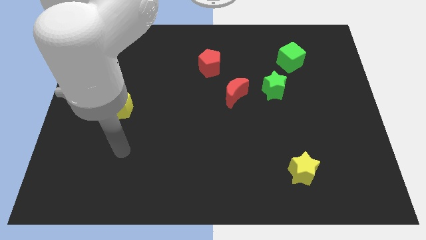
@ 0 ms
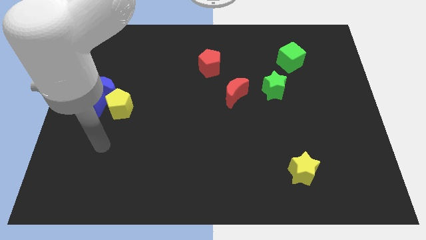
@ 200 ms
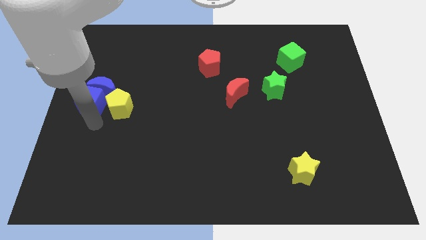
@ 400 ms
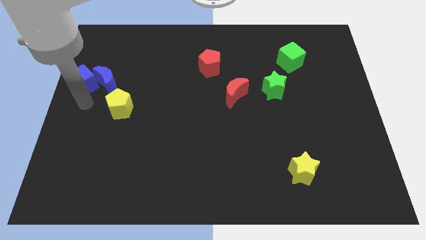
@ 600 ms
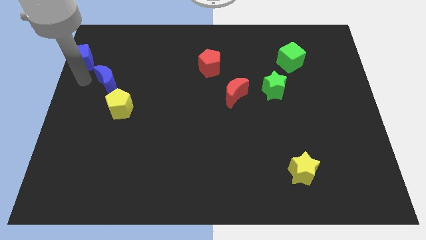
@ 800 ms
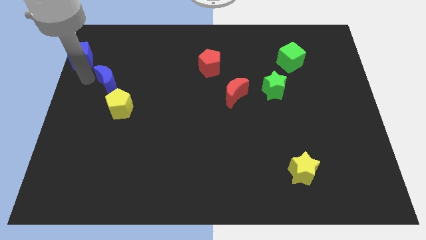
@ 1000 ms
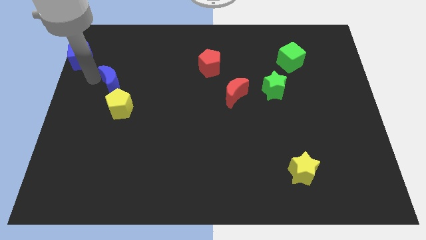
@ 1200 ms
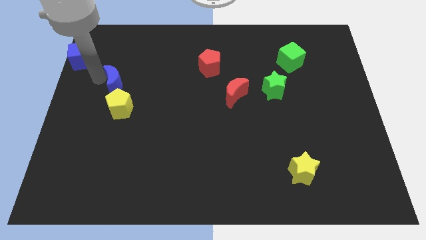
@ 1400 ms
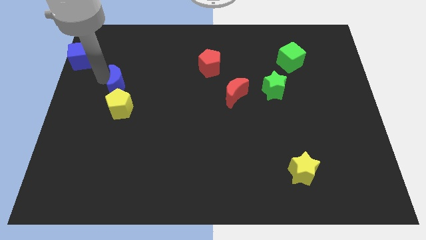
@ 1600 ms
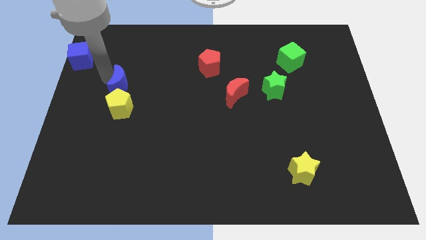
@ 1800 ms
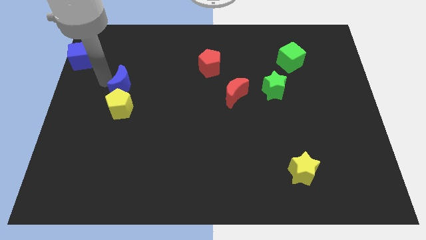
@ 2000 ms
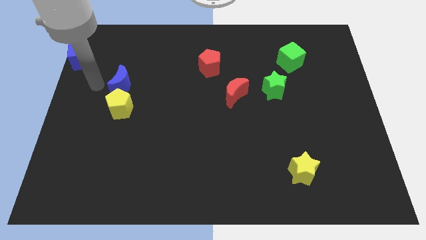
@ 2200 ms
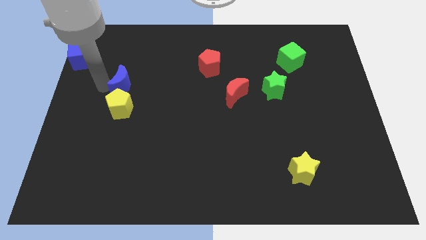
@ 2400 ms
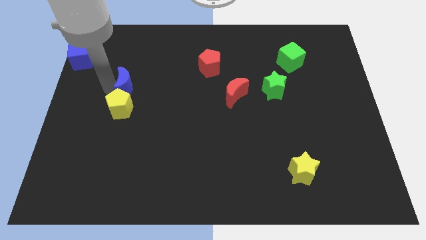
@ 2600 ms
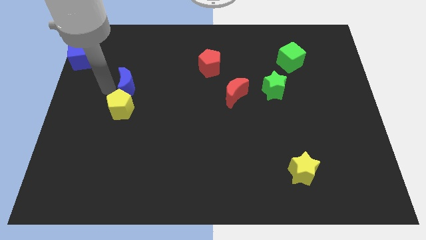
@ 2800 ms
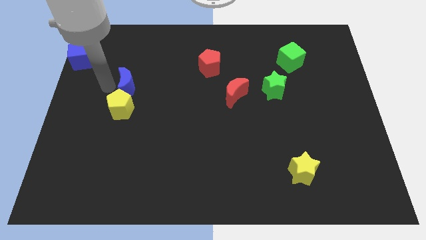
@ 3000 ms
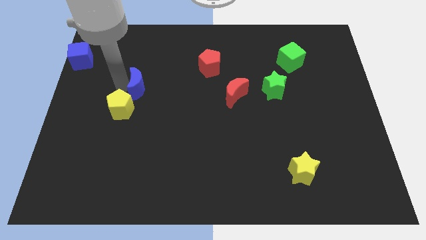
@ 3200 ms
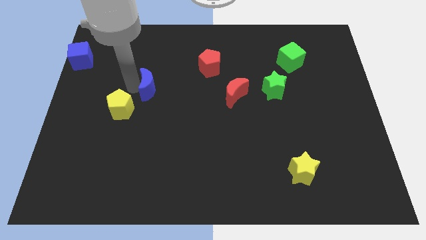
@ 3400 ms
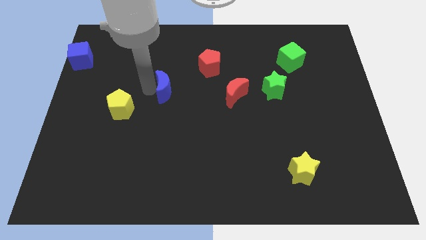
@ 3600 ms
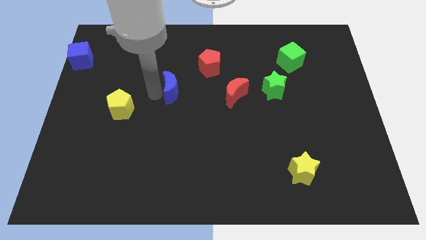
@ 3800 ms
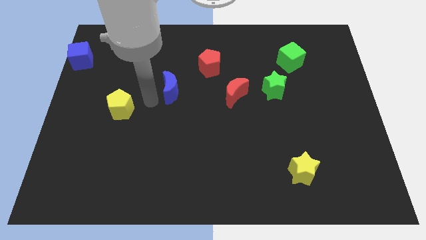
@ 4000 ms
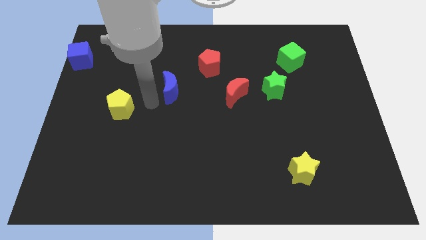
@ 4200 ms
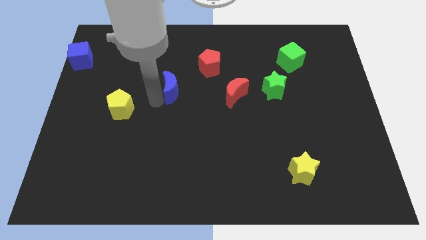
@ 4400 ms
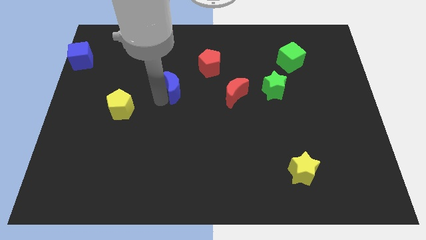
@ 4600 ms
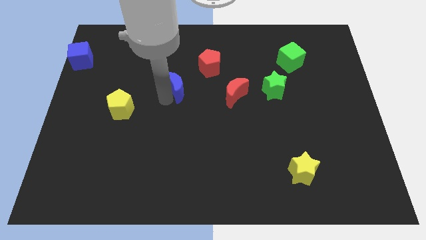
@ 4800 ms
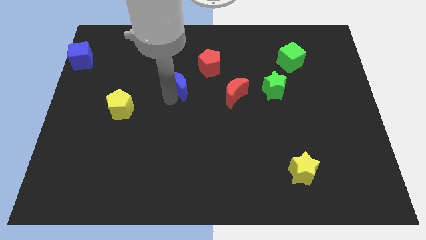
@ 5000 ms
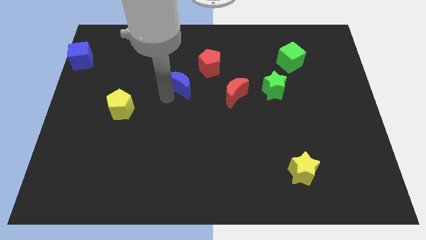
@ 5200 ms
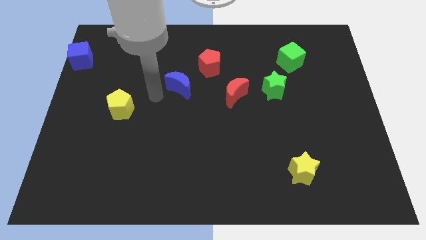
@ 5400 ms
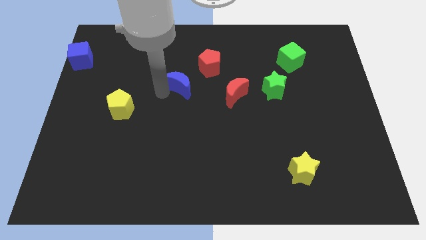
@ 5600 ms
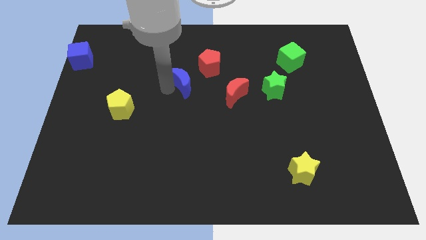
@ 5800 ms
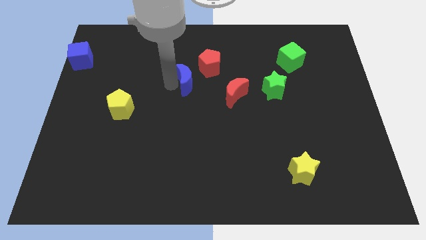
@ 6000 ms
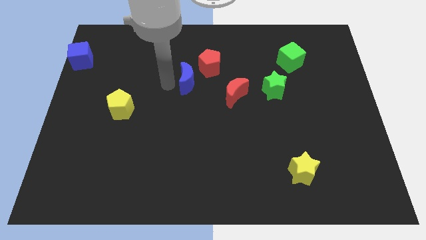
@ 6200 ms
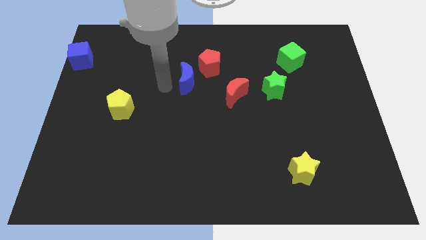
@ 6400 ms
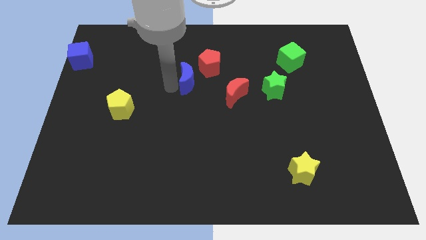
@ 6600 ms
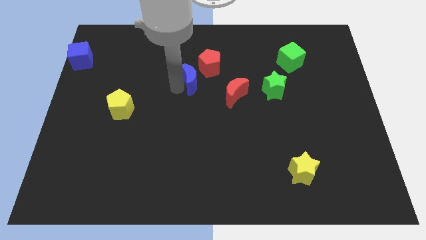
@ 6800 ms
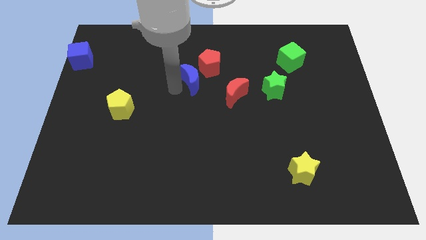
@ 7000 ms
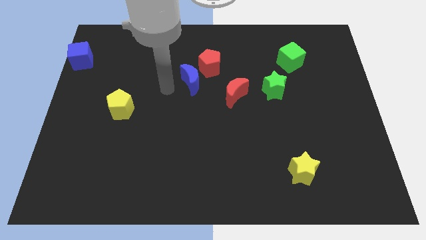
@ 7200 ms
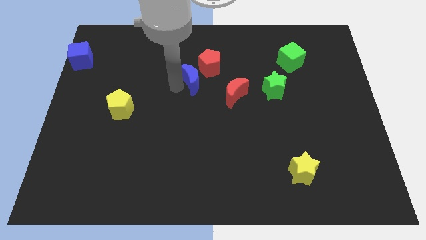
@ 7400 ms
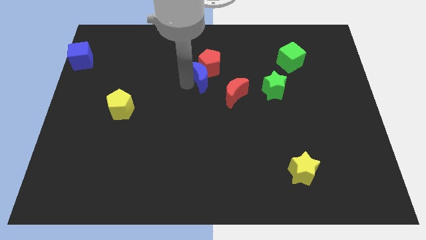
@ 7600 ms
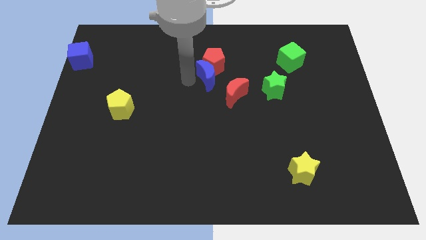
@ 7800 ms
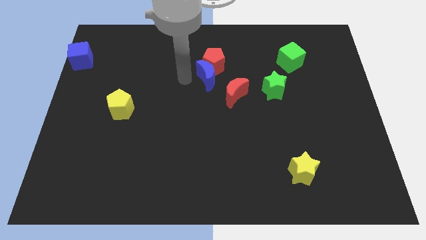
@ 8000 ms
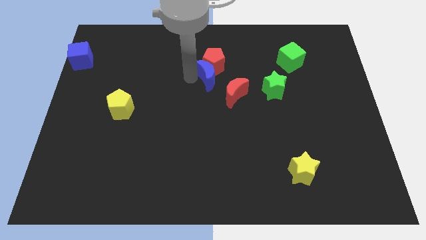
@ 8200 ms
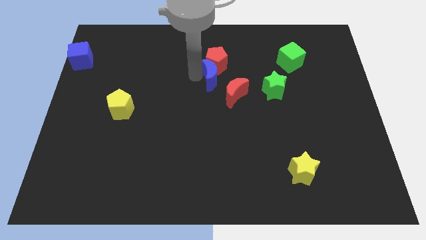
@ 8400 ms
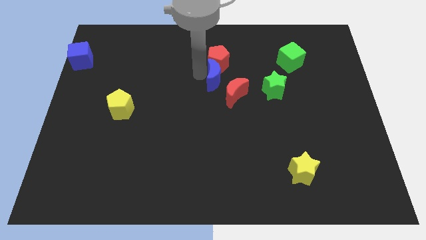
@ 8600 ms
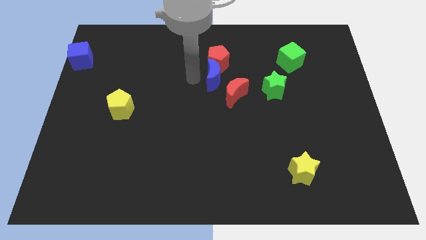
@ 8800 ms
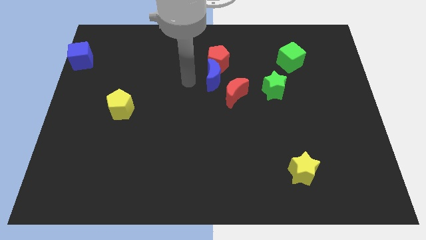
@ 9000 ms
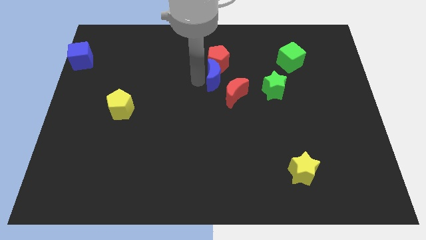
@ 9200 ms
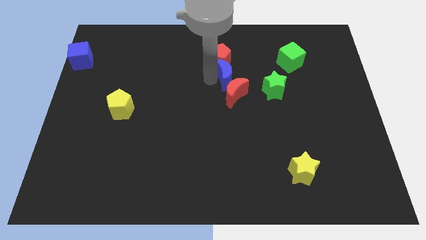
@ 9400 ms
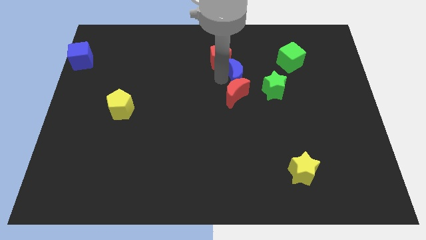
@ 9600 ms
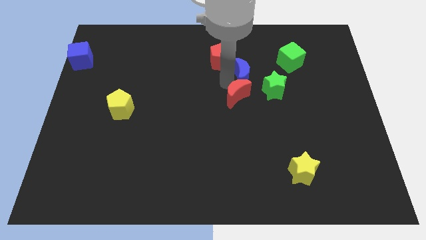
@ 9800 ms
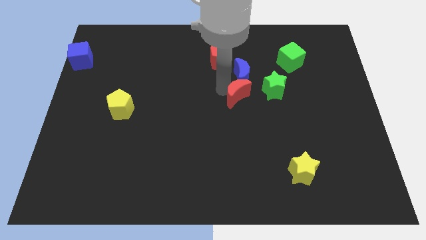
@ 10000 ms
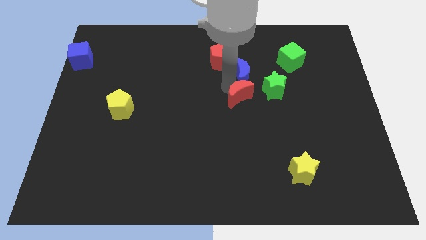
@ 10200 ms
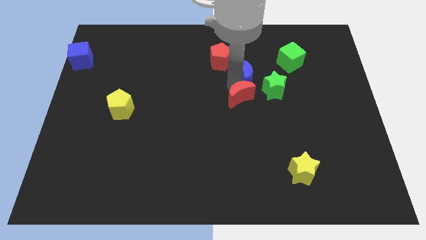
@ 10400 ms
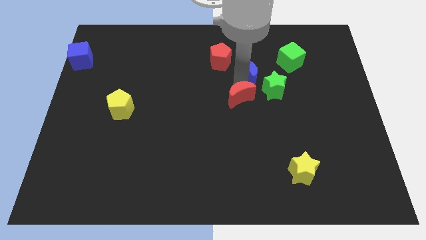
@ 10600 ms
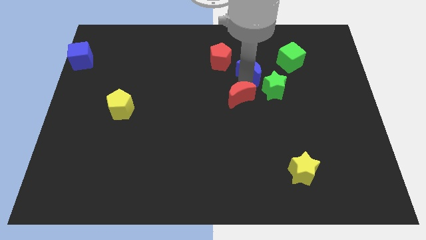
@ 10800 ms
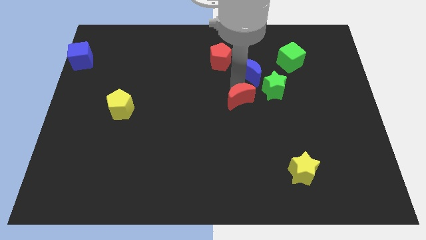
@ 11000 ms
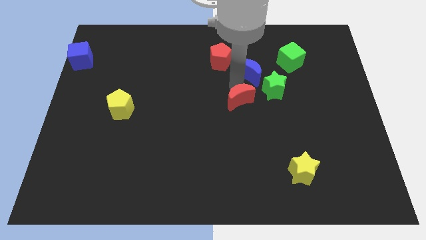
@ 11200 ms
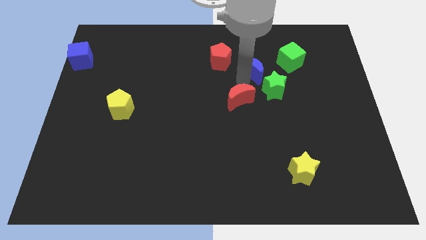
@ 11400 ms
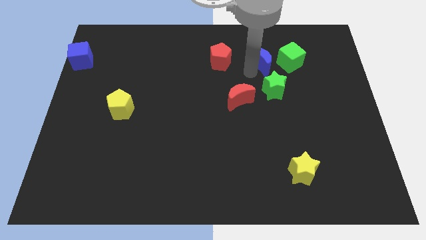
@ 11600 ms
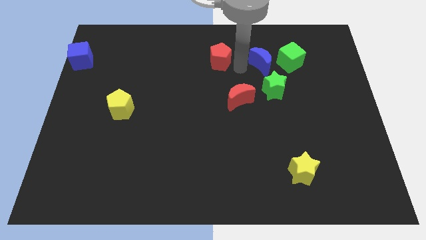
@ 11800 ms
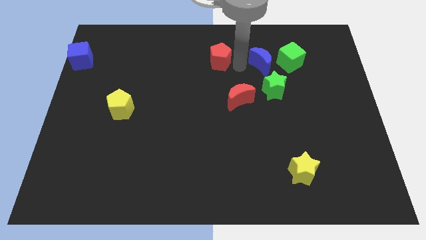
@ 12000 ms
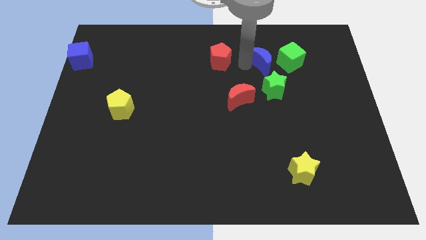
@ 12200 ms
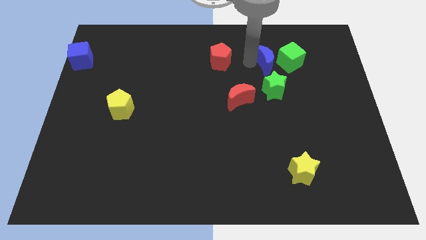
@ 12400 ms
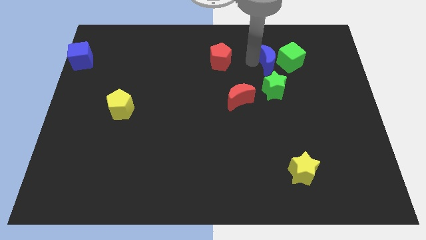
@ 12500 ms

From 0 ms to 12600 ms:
move the blue moon close to the green cube
